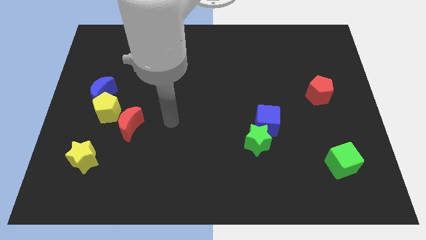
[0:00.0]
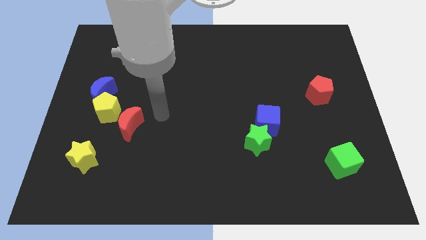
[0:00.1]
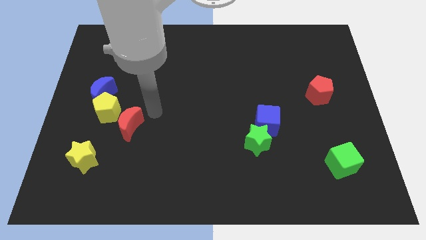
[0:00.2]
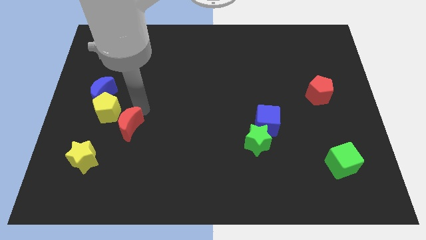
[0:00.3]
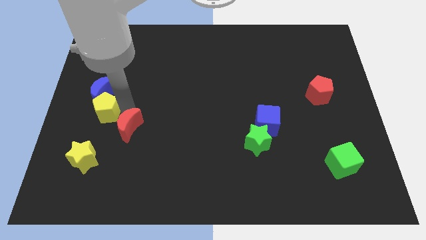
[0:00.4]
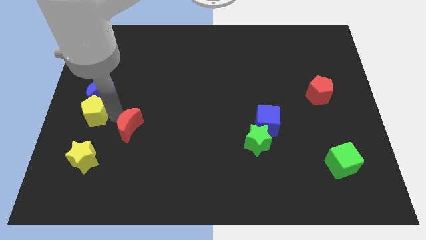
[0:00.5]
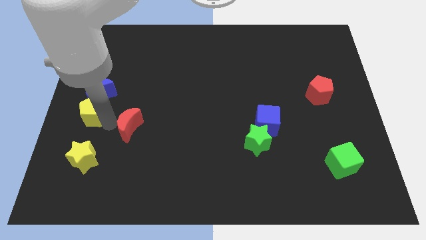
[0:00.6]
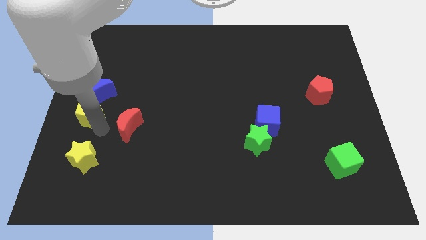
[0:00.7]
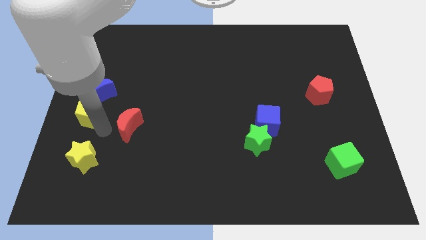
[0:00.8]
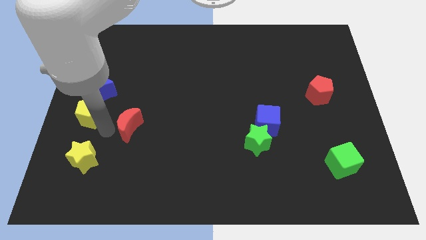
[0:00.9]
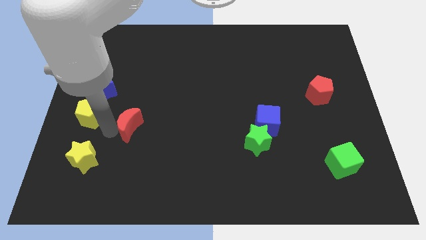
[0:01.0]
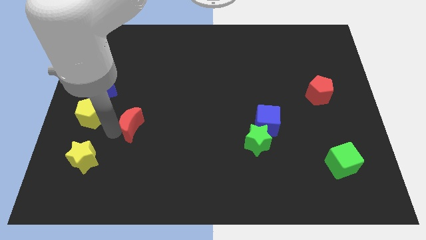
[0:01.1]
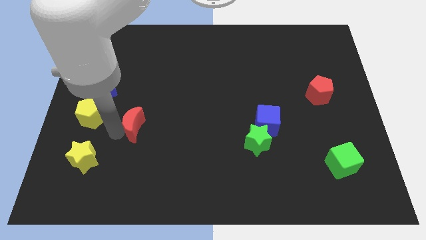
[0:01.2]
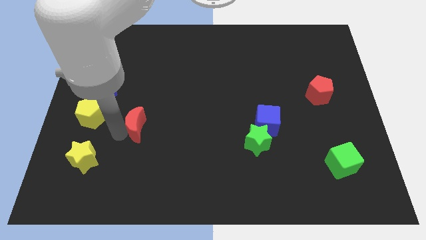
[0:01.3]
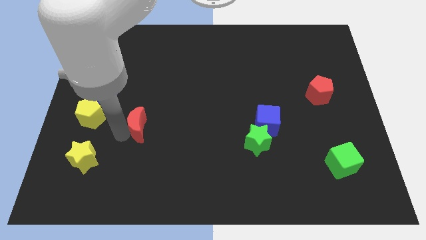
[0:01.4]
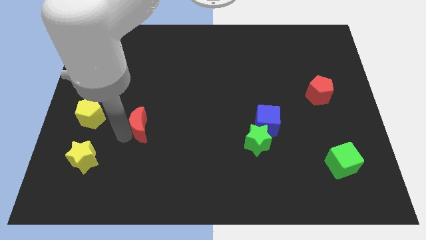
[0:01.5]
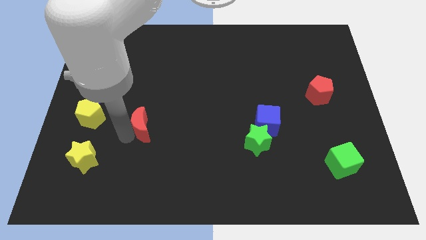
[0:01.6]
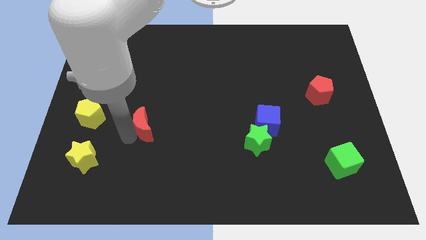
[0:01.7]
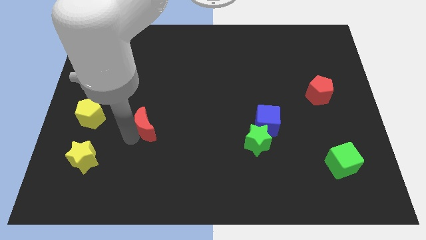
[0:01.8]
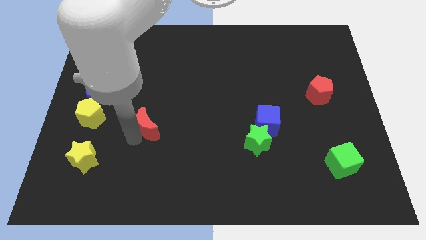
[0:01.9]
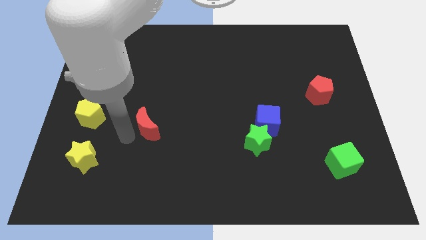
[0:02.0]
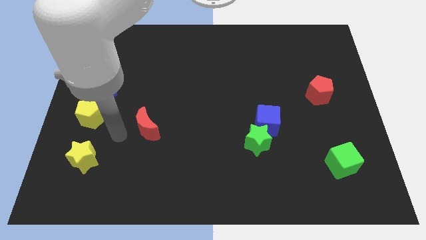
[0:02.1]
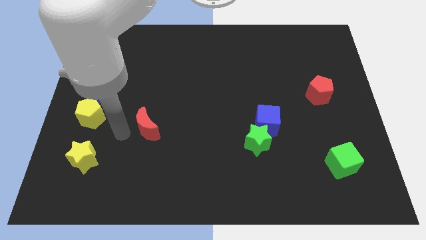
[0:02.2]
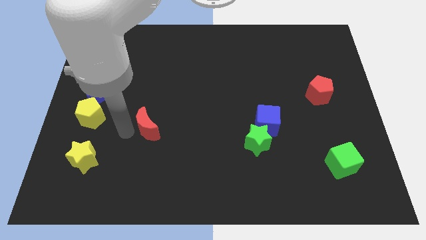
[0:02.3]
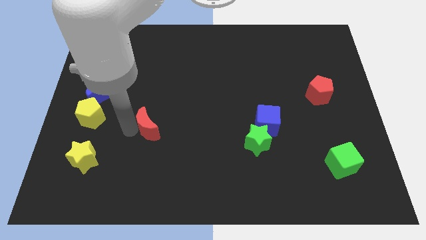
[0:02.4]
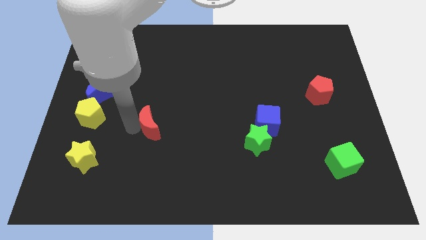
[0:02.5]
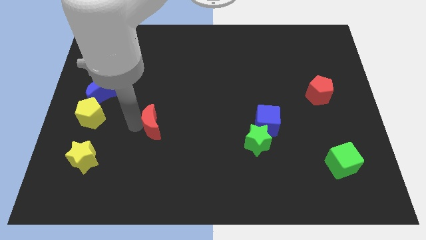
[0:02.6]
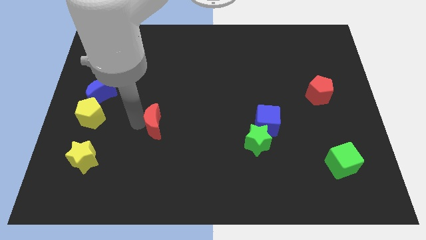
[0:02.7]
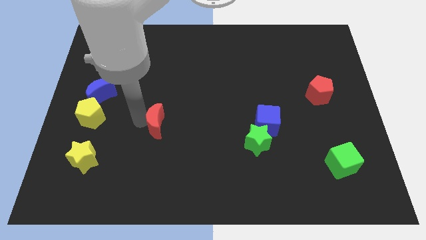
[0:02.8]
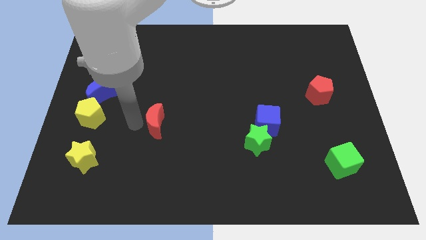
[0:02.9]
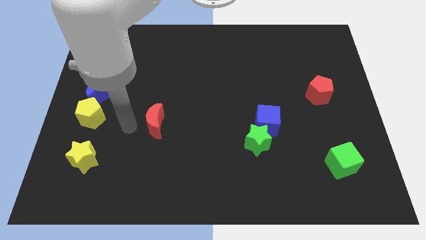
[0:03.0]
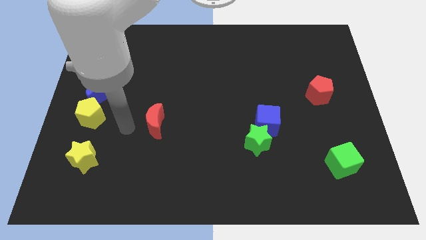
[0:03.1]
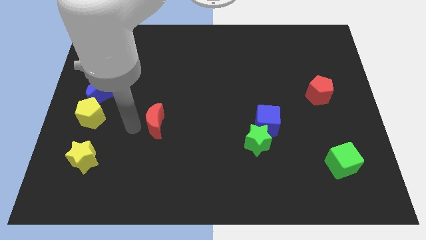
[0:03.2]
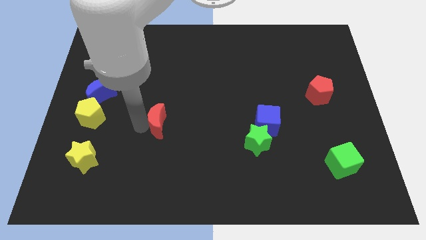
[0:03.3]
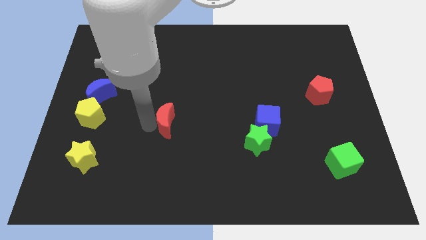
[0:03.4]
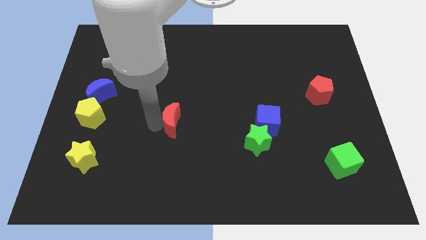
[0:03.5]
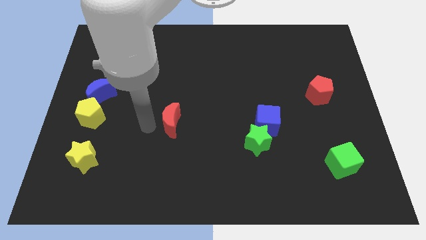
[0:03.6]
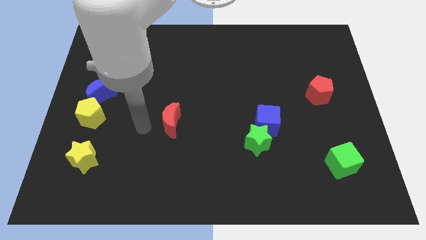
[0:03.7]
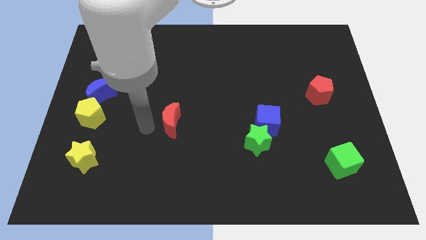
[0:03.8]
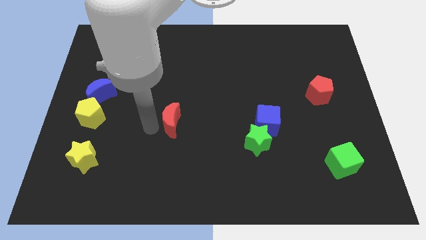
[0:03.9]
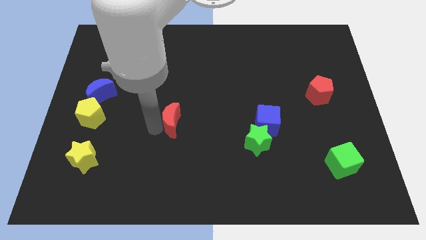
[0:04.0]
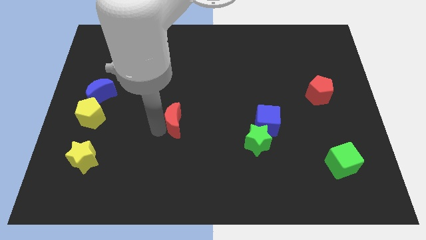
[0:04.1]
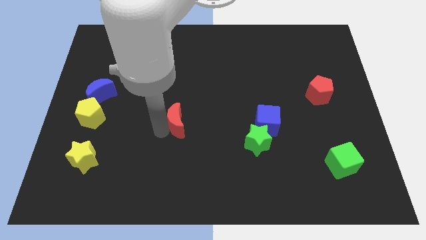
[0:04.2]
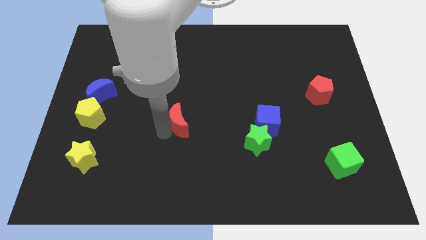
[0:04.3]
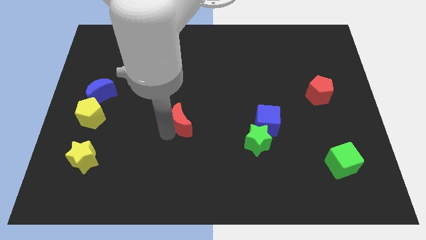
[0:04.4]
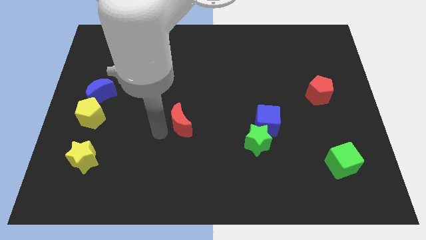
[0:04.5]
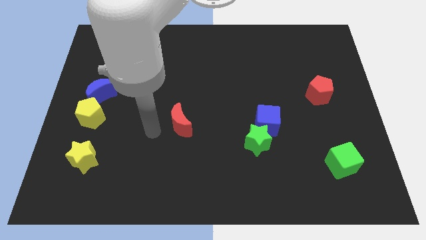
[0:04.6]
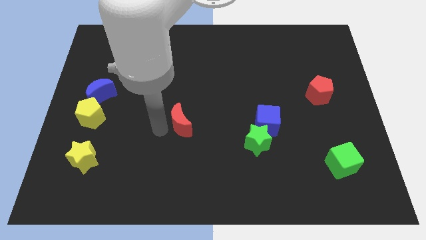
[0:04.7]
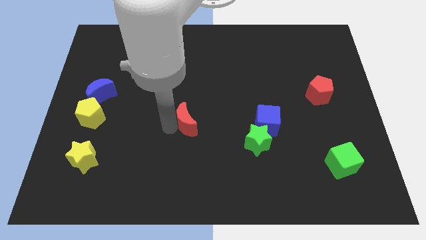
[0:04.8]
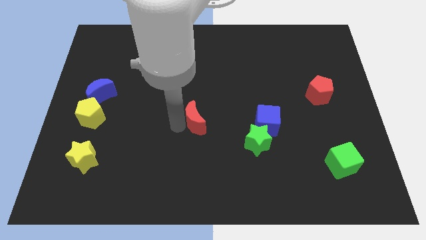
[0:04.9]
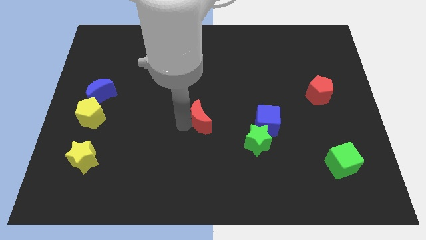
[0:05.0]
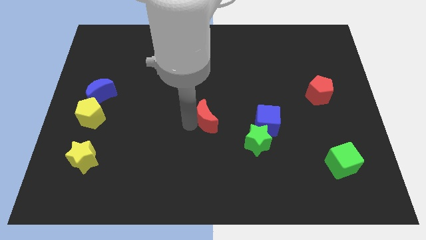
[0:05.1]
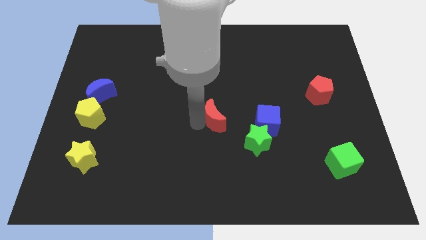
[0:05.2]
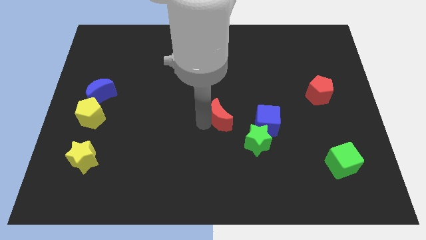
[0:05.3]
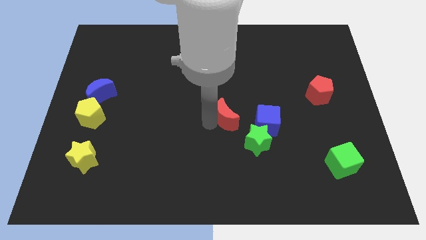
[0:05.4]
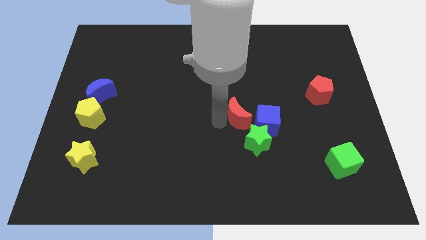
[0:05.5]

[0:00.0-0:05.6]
move the red moon above the green star

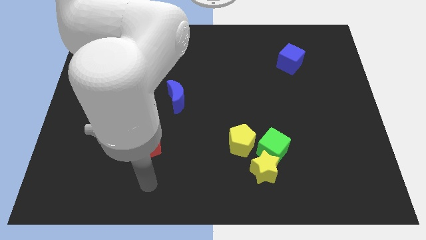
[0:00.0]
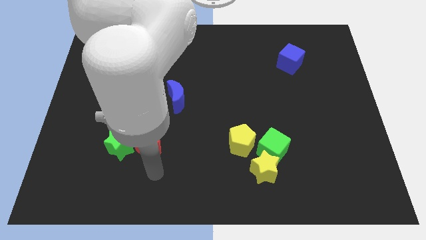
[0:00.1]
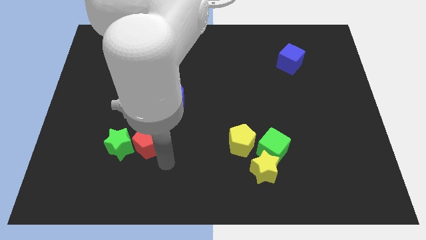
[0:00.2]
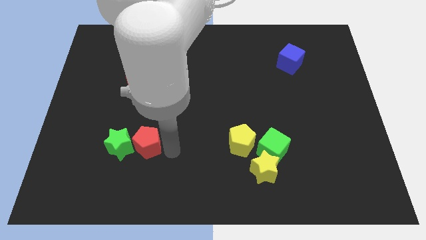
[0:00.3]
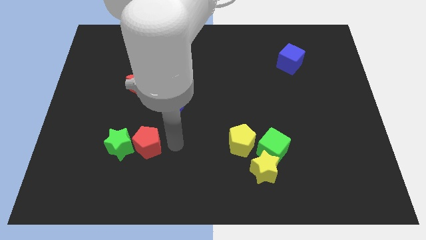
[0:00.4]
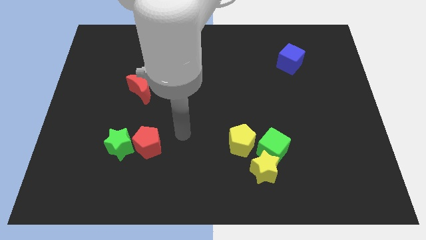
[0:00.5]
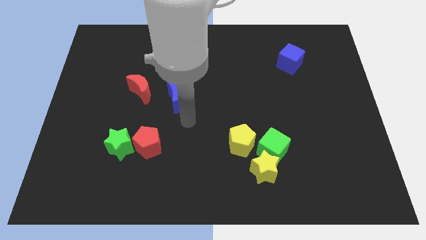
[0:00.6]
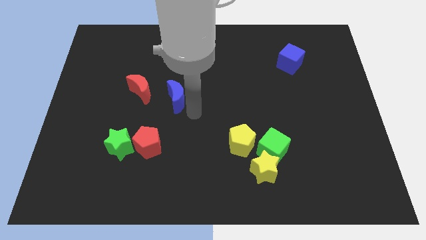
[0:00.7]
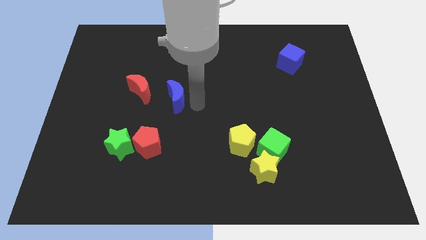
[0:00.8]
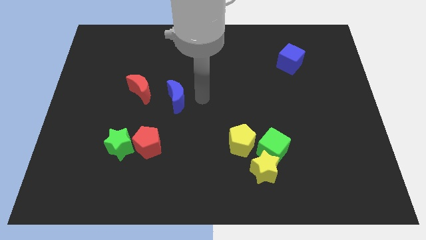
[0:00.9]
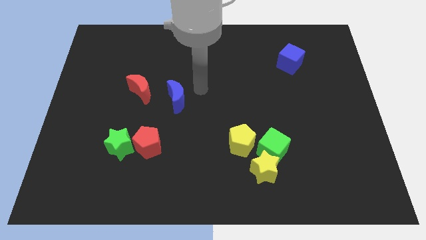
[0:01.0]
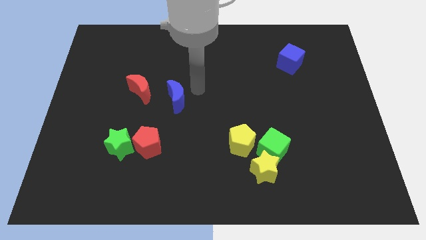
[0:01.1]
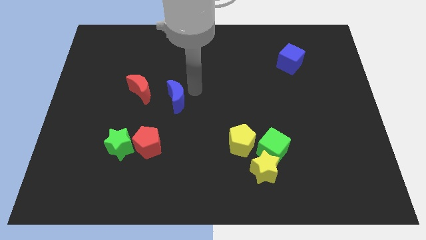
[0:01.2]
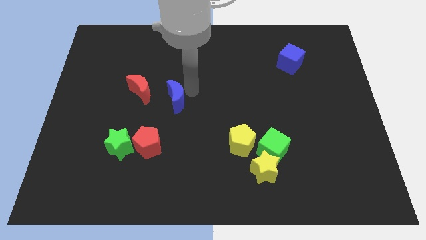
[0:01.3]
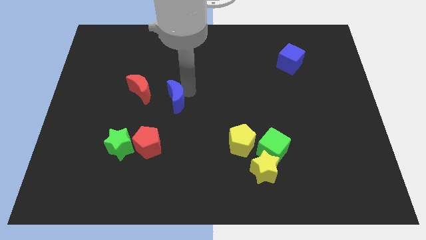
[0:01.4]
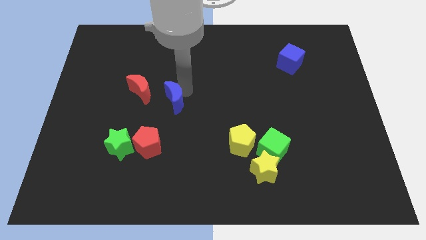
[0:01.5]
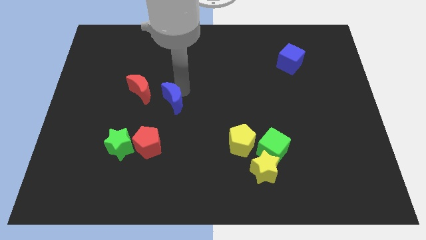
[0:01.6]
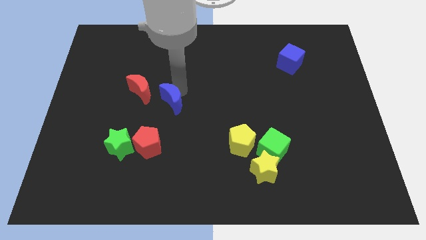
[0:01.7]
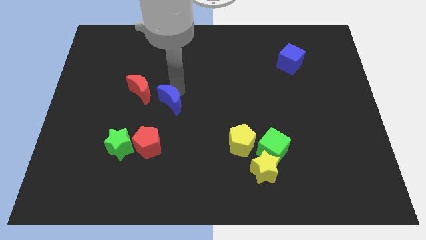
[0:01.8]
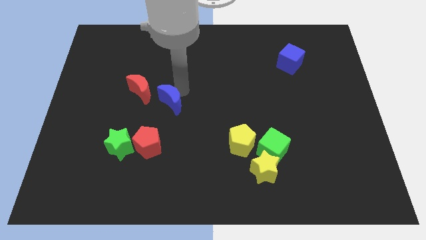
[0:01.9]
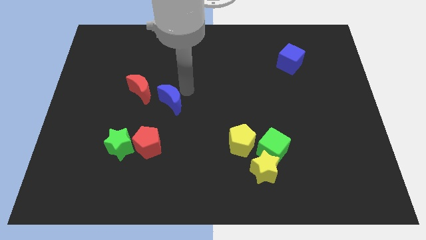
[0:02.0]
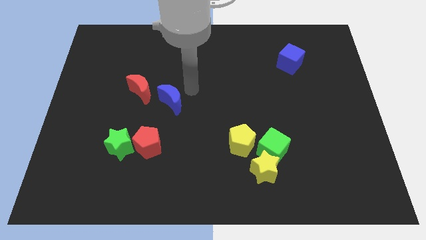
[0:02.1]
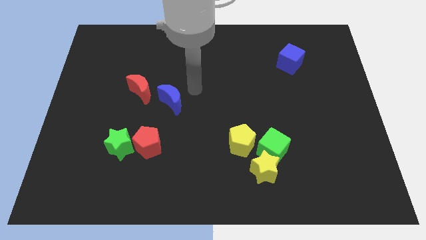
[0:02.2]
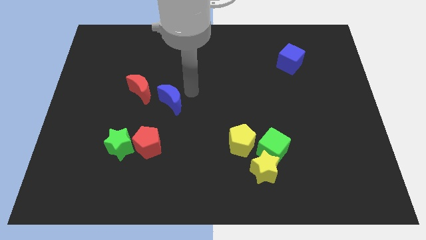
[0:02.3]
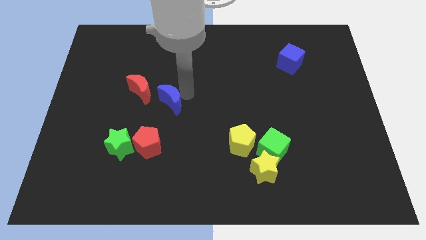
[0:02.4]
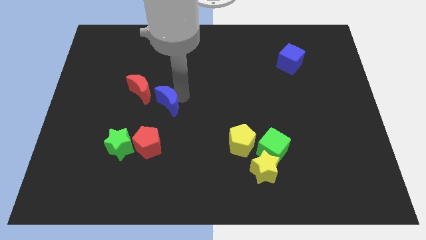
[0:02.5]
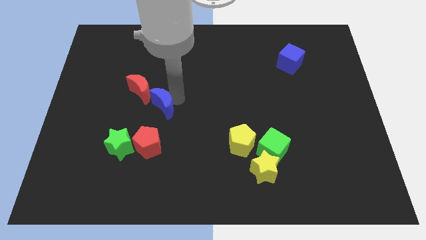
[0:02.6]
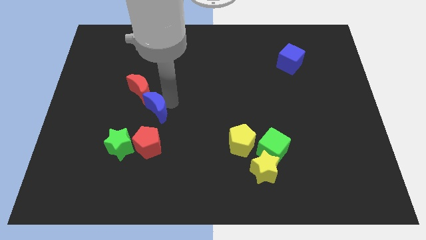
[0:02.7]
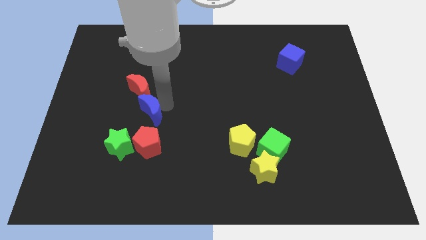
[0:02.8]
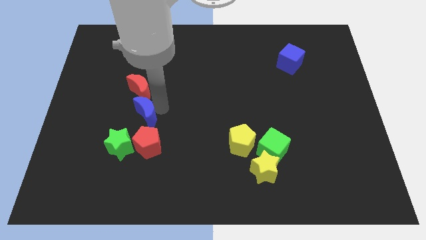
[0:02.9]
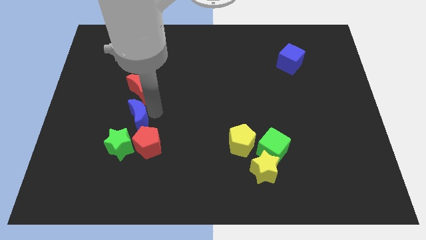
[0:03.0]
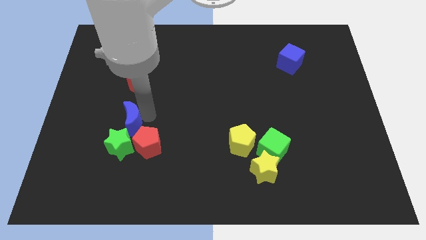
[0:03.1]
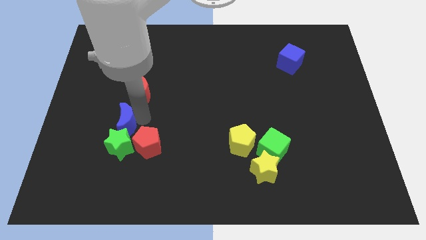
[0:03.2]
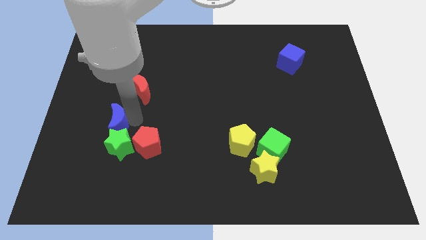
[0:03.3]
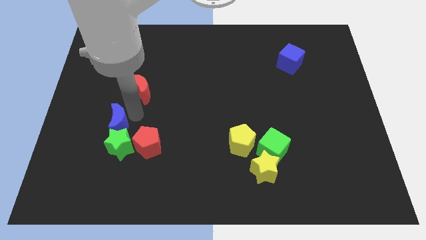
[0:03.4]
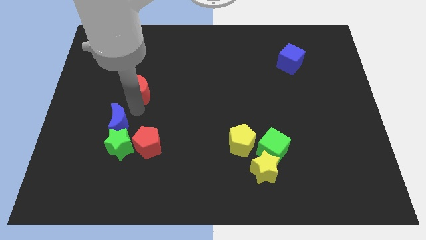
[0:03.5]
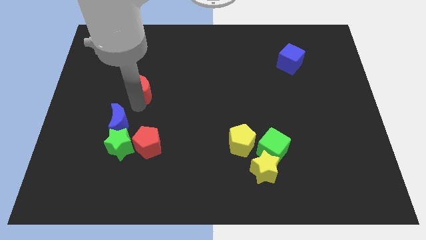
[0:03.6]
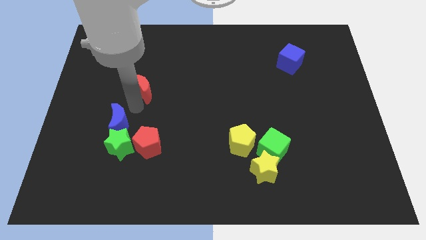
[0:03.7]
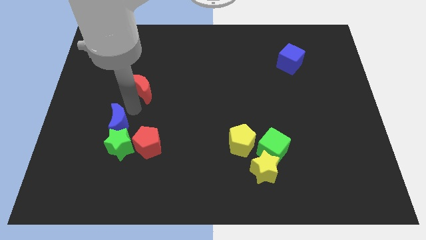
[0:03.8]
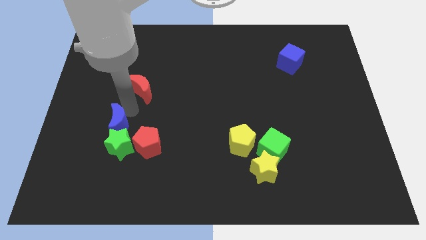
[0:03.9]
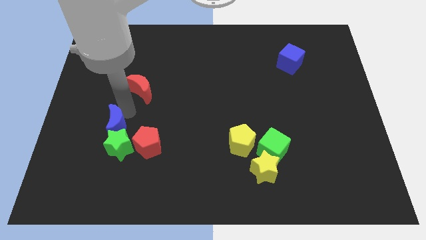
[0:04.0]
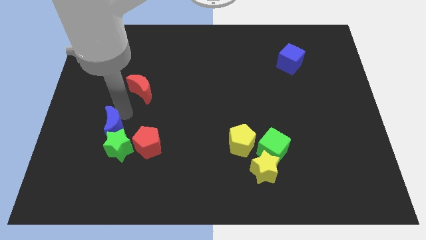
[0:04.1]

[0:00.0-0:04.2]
push the blue moon to the left of the red pentagon
